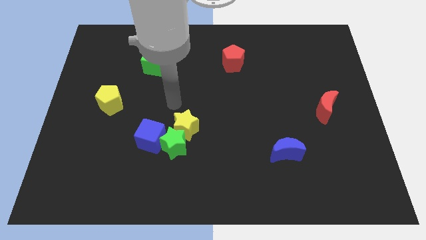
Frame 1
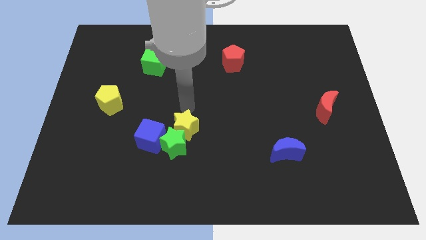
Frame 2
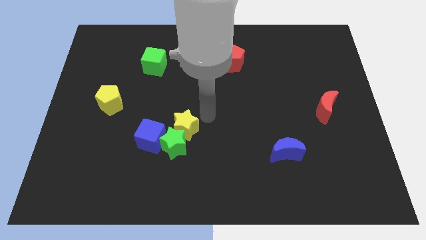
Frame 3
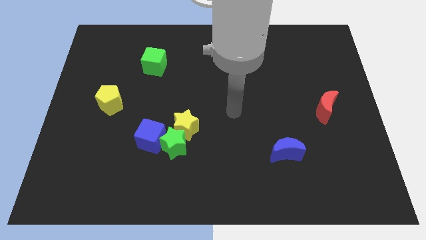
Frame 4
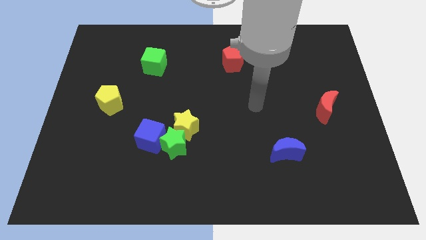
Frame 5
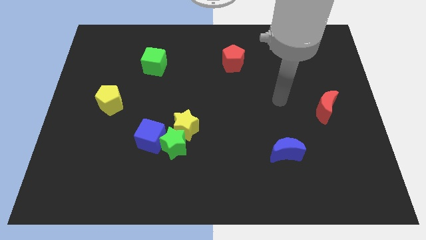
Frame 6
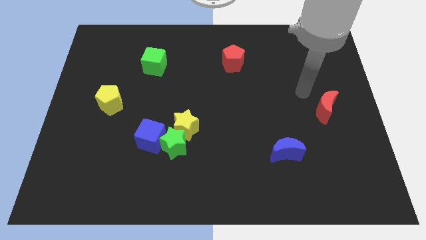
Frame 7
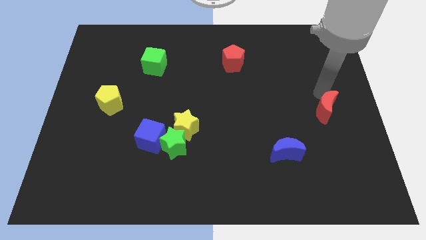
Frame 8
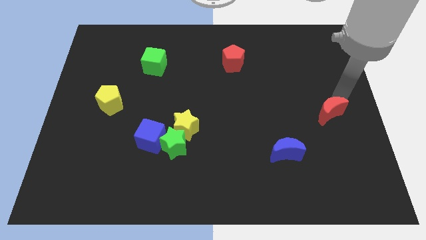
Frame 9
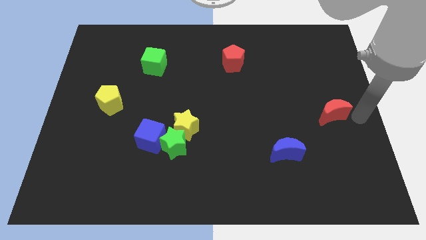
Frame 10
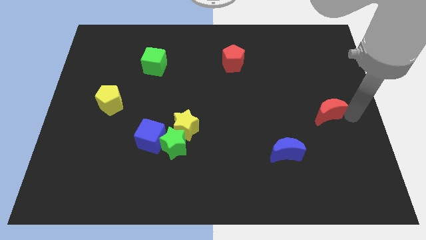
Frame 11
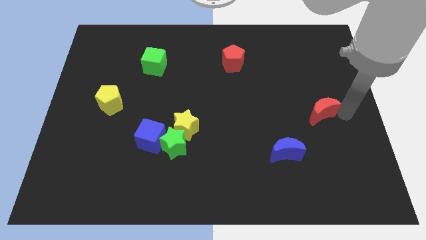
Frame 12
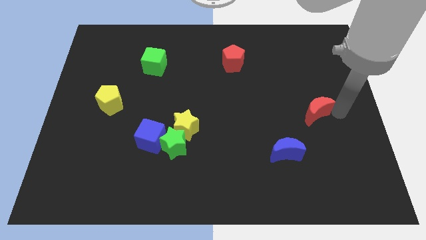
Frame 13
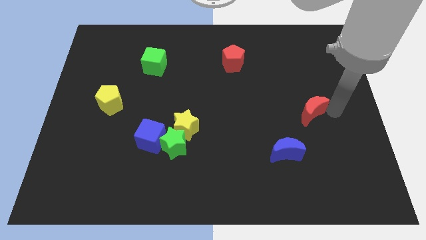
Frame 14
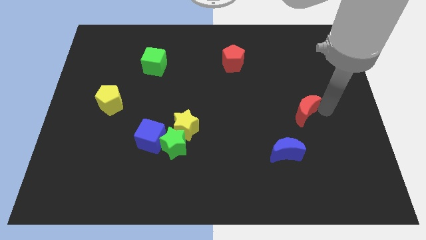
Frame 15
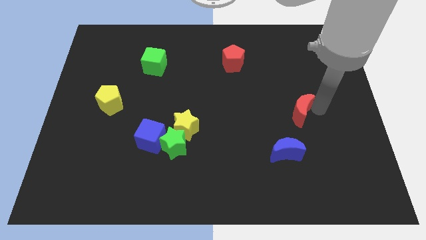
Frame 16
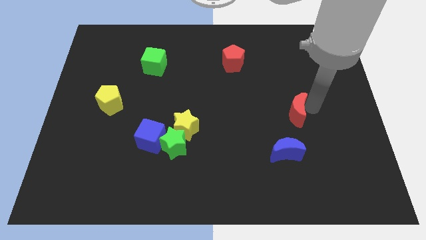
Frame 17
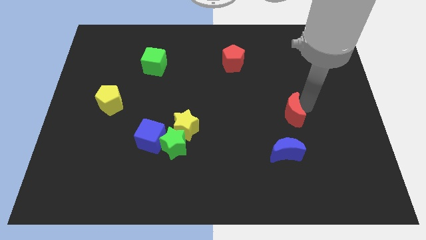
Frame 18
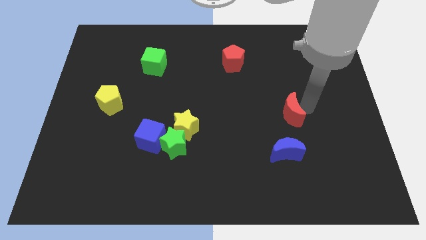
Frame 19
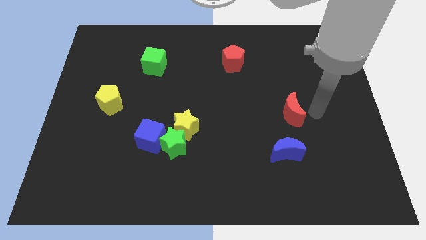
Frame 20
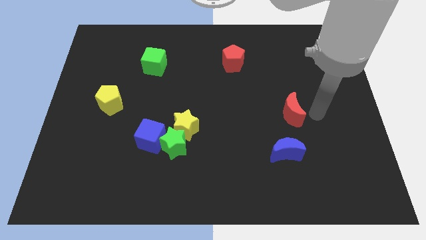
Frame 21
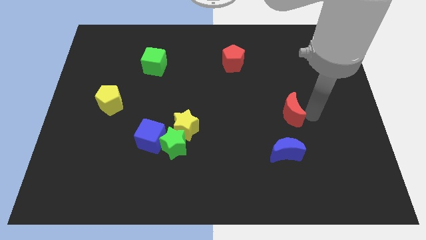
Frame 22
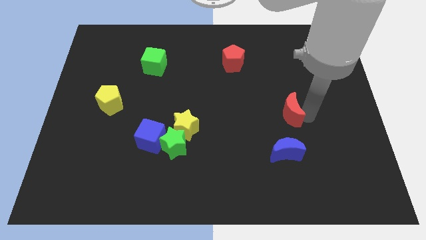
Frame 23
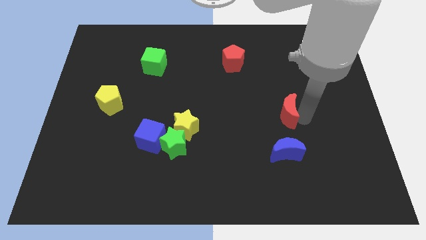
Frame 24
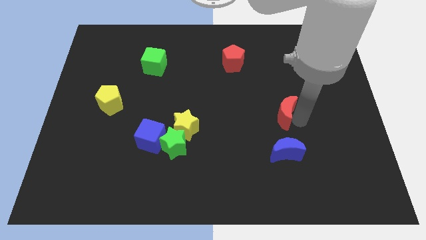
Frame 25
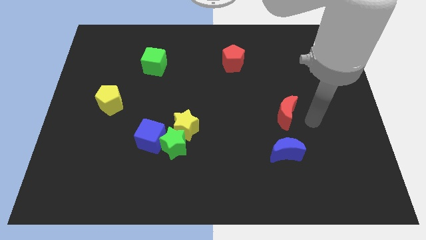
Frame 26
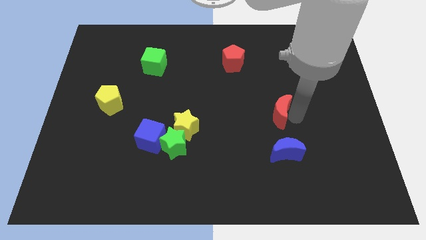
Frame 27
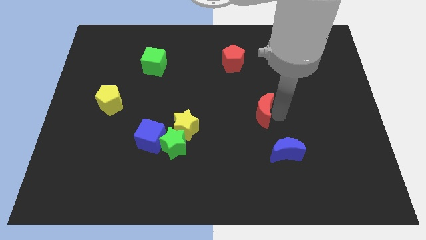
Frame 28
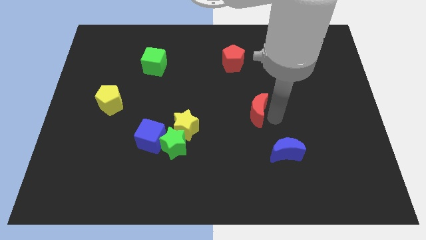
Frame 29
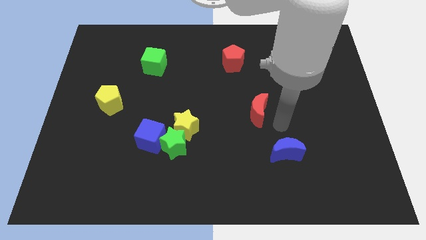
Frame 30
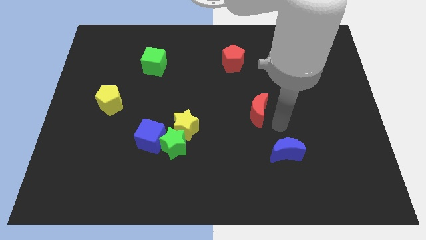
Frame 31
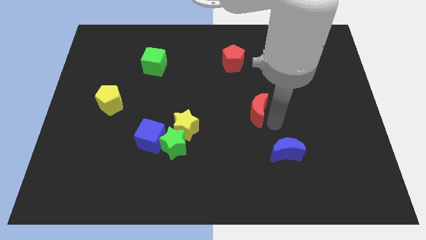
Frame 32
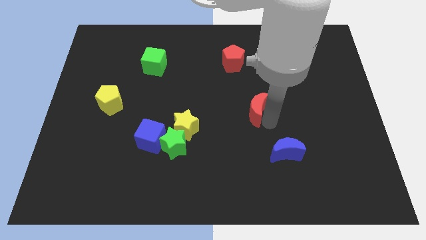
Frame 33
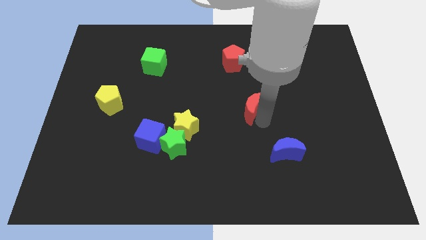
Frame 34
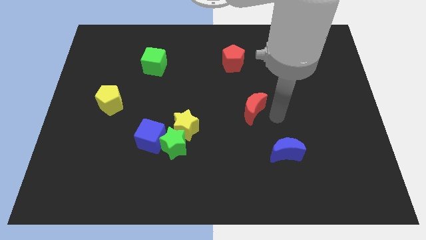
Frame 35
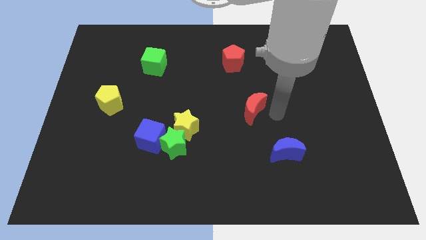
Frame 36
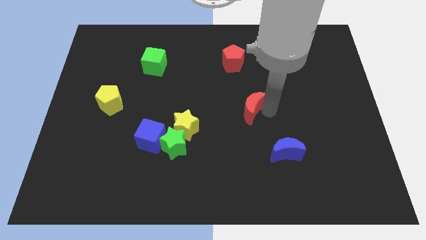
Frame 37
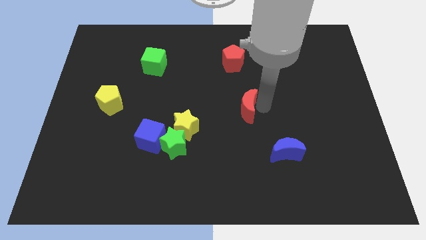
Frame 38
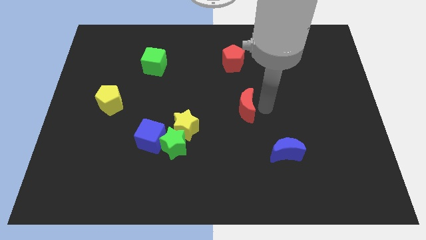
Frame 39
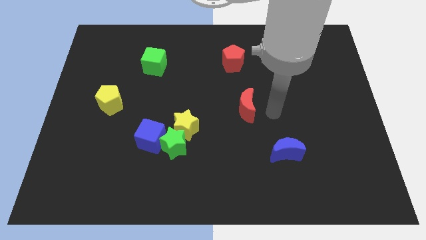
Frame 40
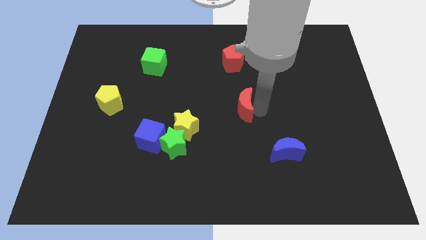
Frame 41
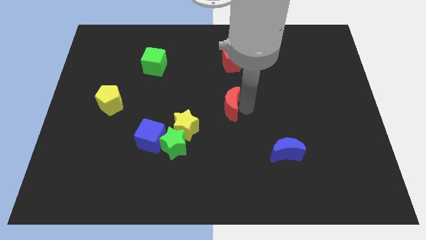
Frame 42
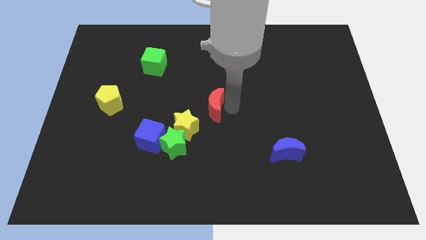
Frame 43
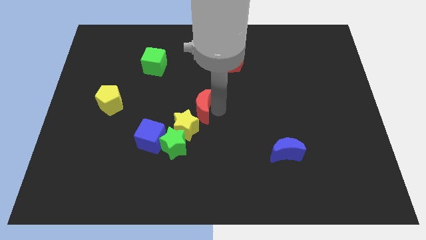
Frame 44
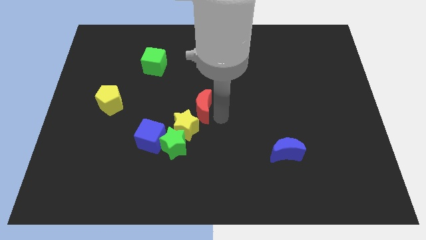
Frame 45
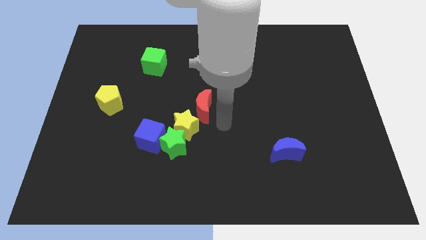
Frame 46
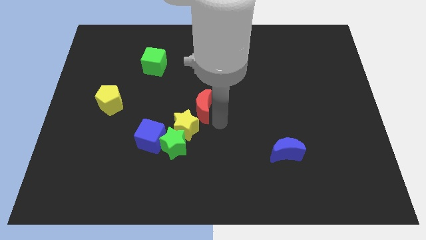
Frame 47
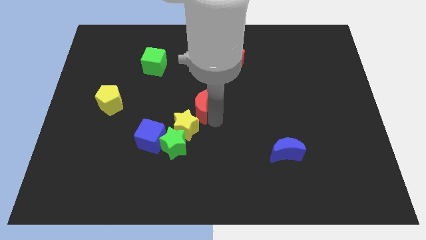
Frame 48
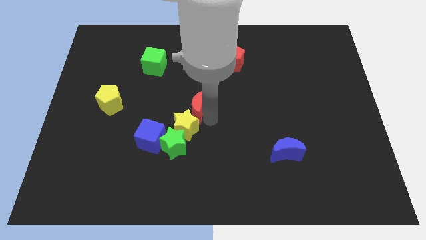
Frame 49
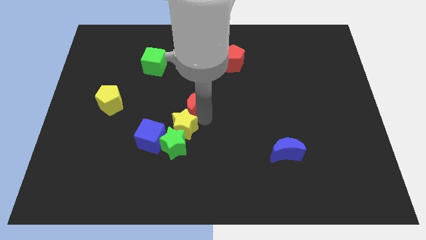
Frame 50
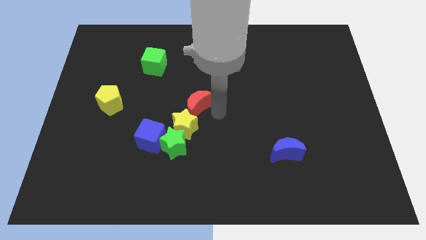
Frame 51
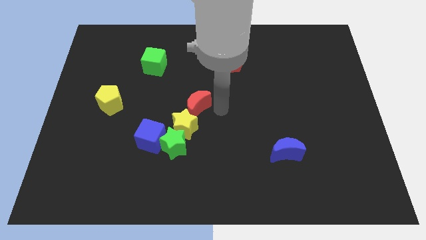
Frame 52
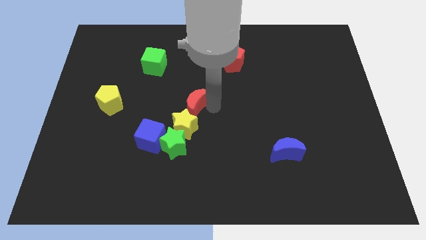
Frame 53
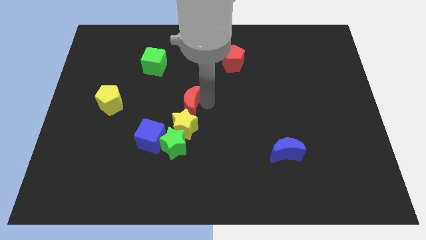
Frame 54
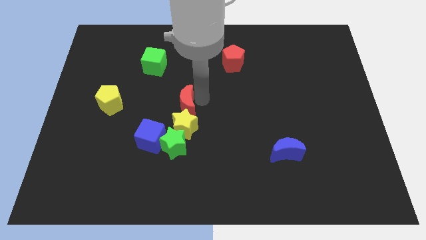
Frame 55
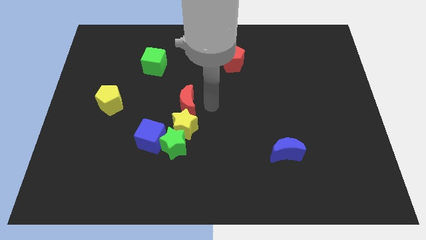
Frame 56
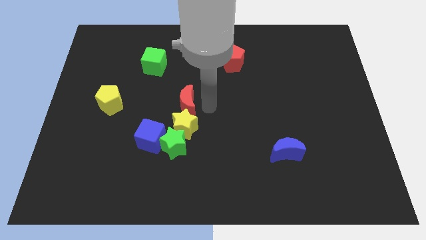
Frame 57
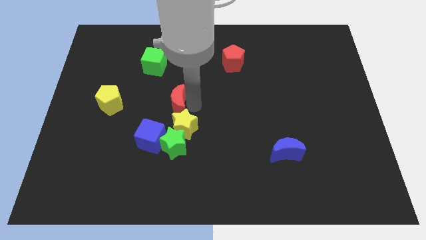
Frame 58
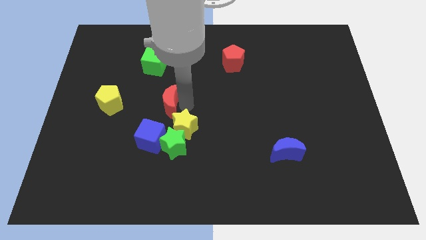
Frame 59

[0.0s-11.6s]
put the red moon above the blue cube

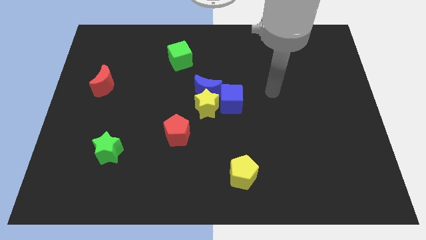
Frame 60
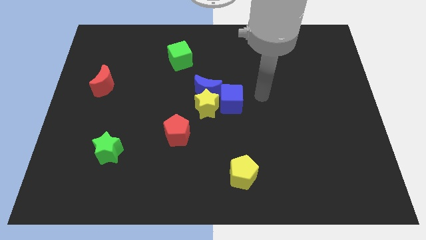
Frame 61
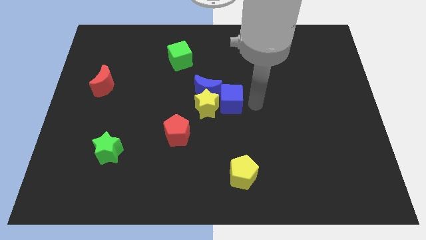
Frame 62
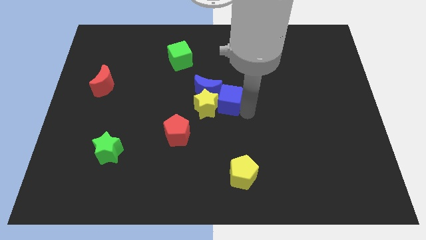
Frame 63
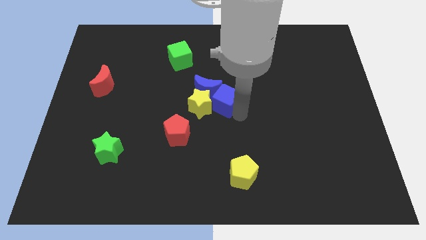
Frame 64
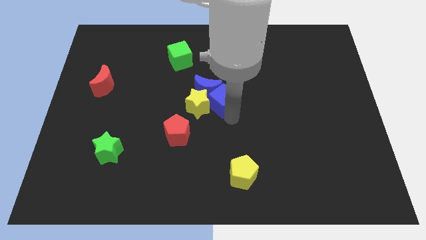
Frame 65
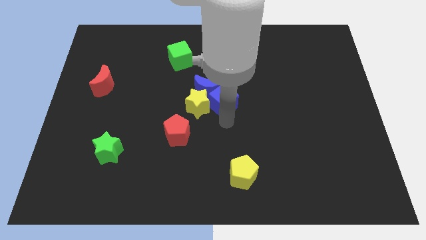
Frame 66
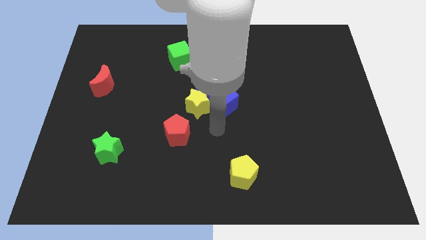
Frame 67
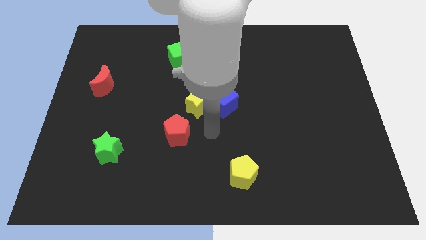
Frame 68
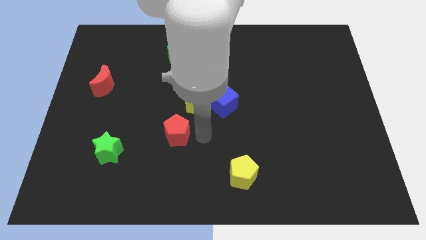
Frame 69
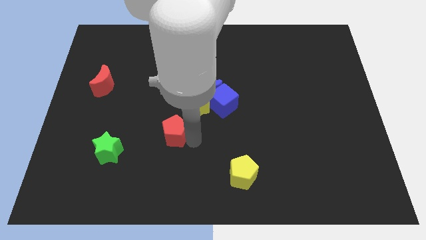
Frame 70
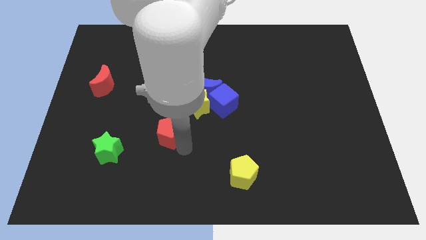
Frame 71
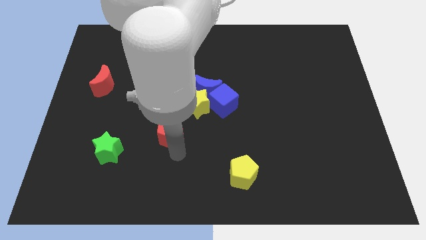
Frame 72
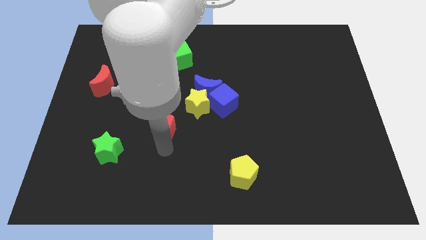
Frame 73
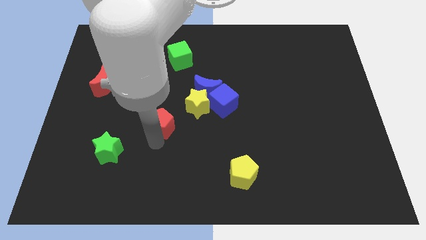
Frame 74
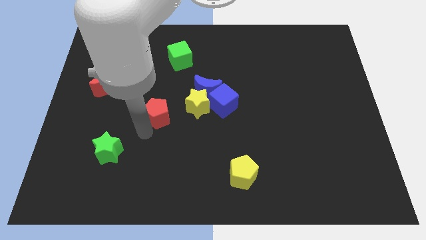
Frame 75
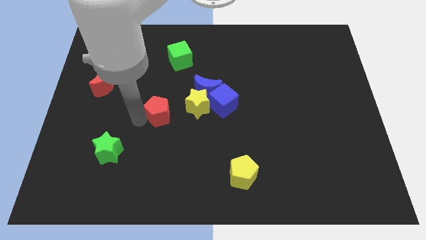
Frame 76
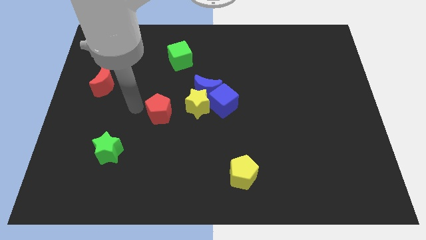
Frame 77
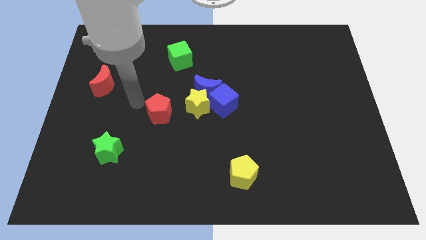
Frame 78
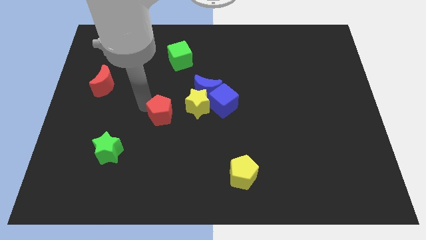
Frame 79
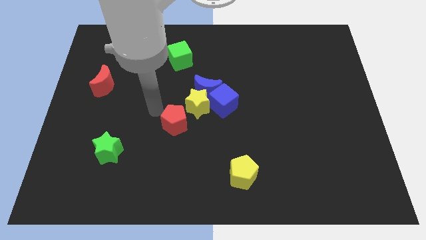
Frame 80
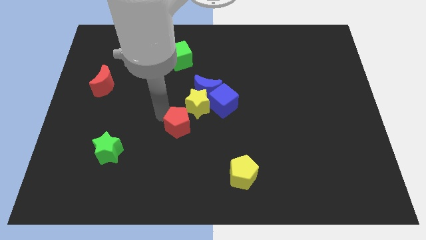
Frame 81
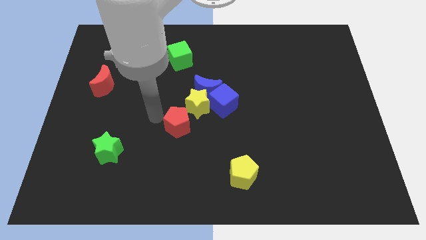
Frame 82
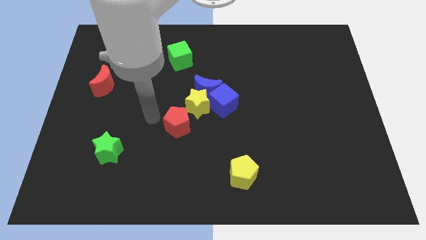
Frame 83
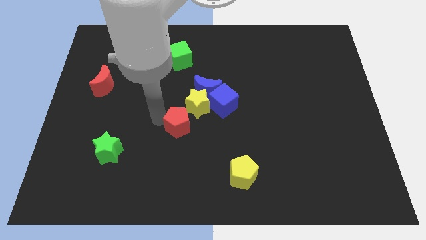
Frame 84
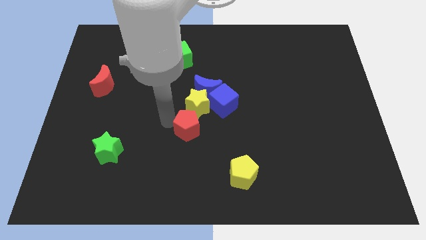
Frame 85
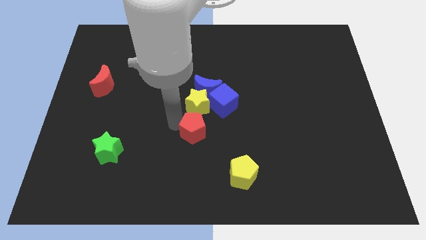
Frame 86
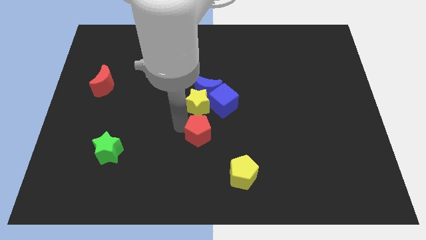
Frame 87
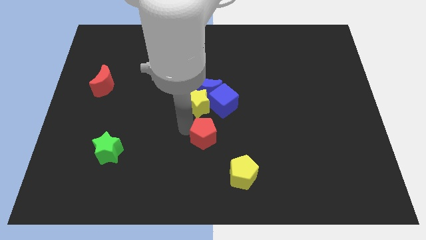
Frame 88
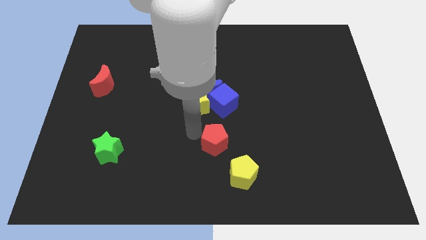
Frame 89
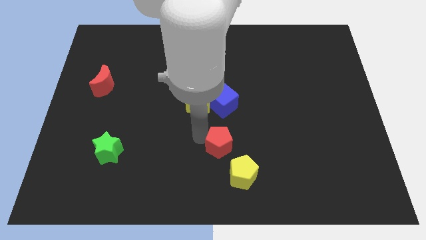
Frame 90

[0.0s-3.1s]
put the red pentagon to the top side of the yellow pentagon
